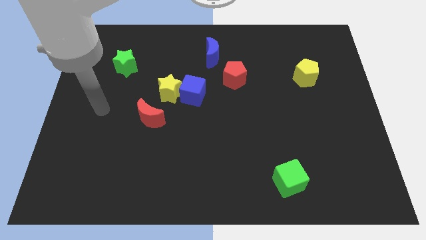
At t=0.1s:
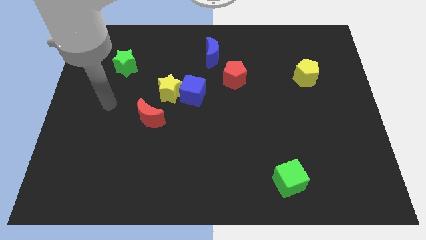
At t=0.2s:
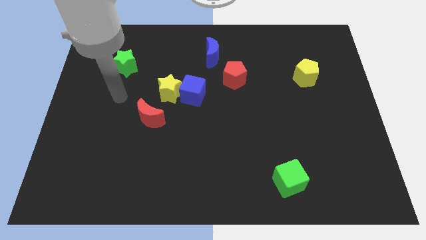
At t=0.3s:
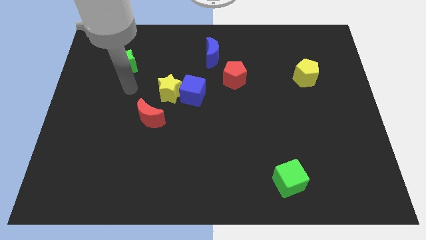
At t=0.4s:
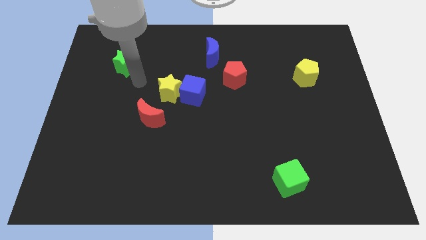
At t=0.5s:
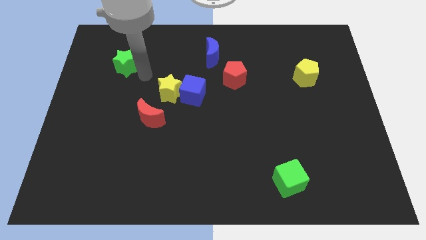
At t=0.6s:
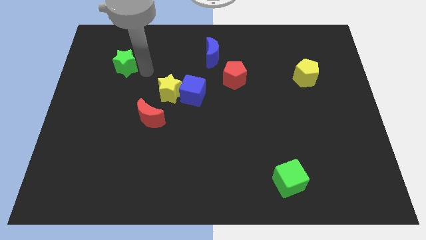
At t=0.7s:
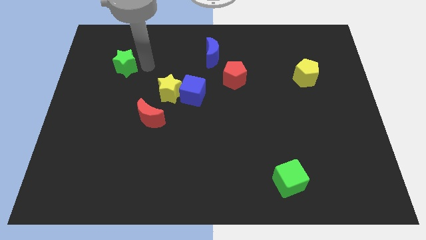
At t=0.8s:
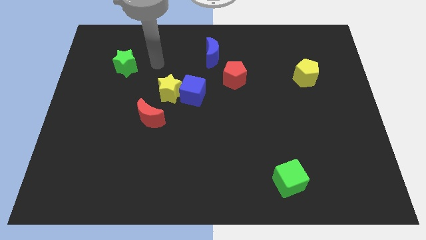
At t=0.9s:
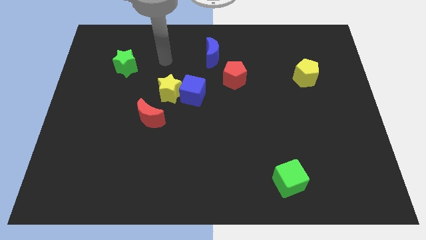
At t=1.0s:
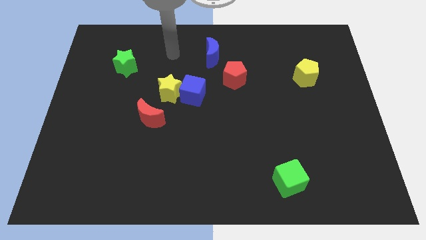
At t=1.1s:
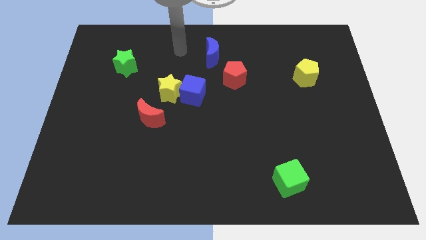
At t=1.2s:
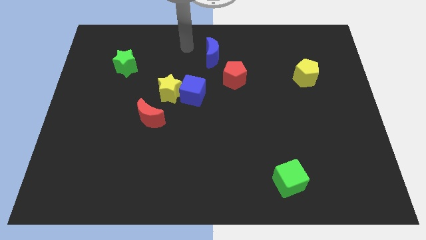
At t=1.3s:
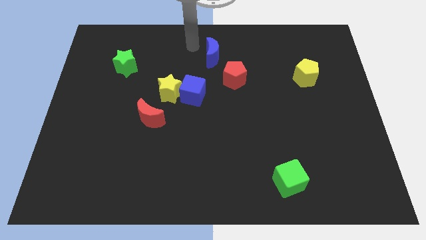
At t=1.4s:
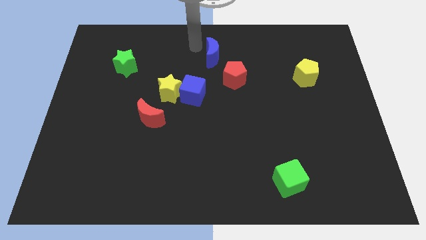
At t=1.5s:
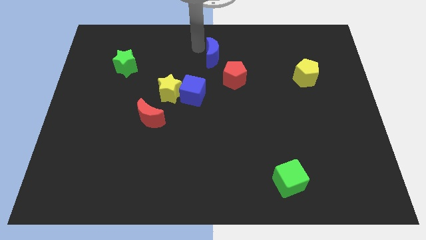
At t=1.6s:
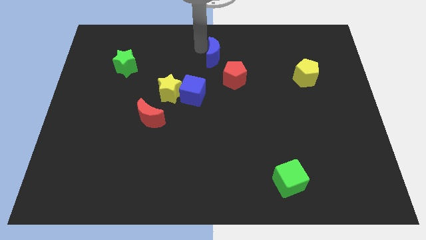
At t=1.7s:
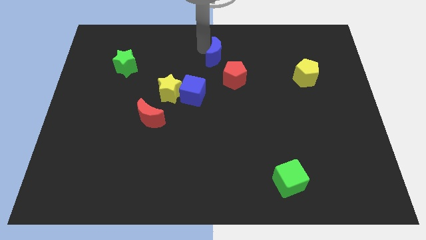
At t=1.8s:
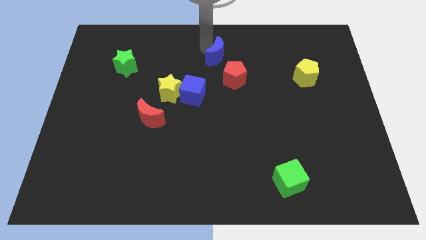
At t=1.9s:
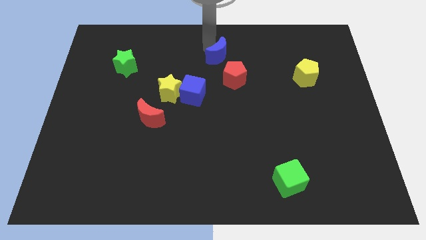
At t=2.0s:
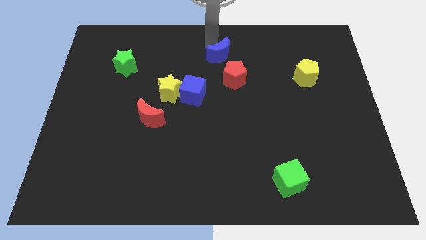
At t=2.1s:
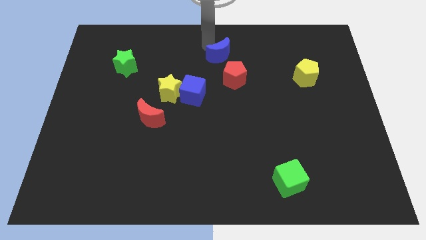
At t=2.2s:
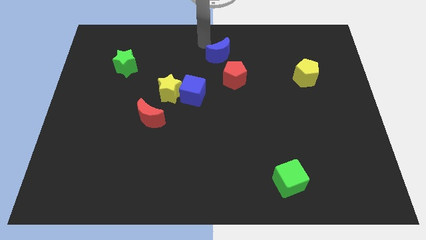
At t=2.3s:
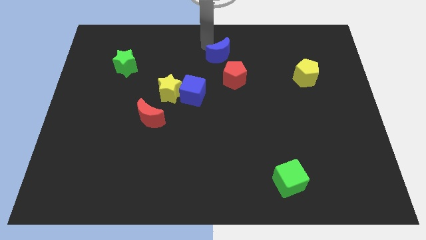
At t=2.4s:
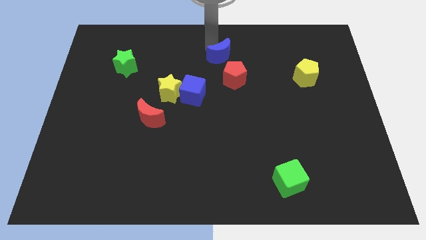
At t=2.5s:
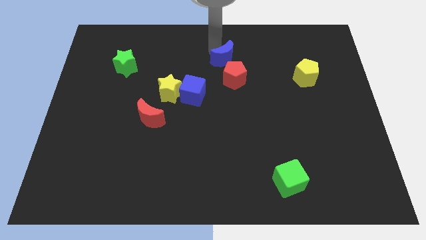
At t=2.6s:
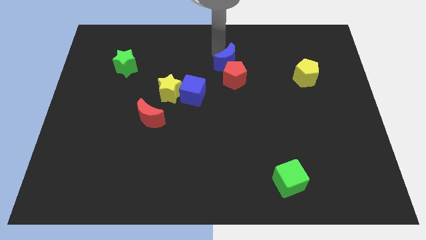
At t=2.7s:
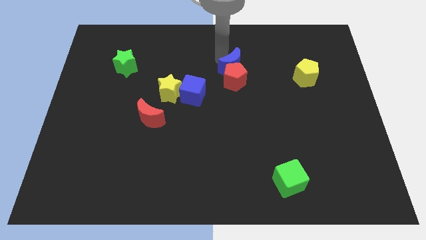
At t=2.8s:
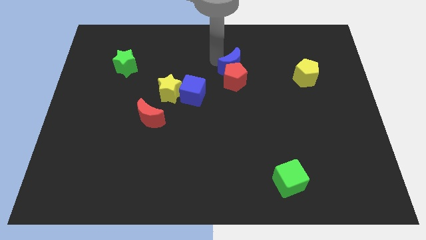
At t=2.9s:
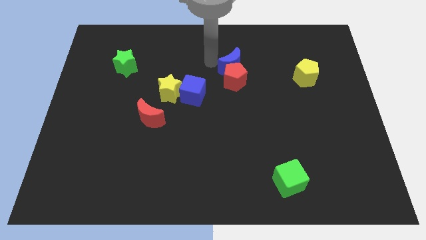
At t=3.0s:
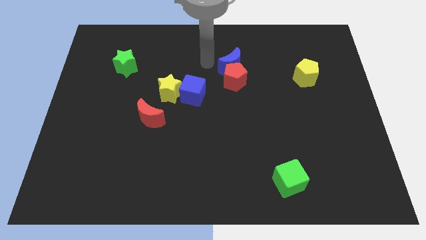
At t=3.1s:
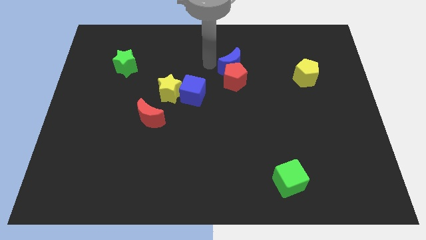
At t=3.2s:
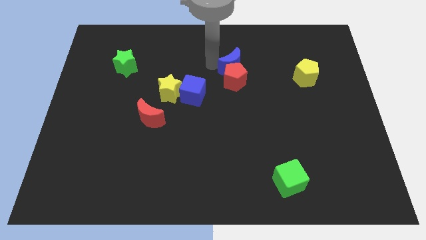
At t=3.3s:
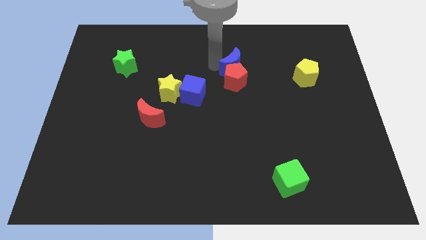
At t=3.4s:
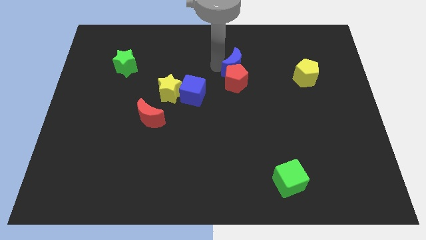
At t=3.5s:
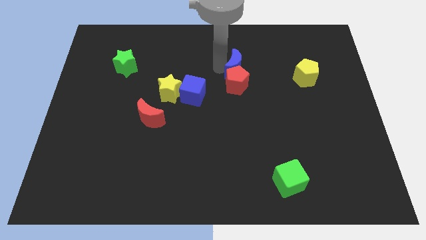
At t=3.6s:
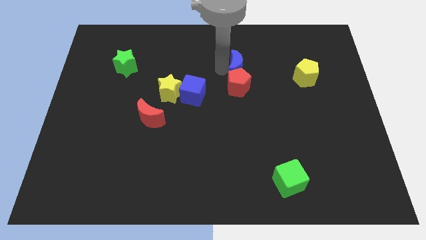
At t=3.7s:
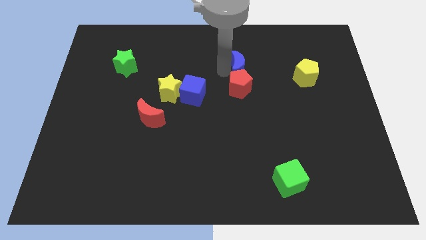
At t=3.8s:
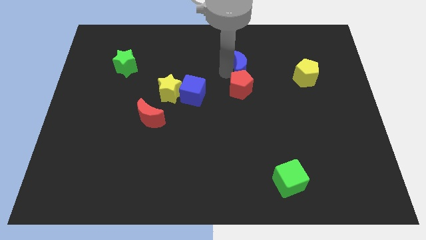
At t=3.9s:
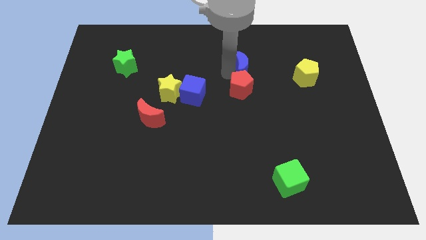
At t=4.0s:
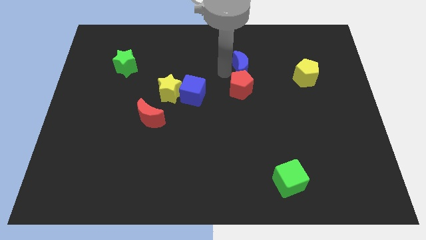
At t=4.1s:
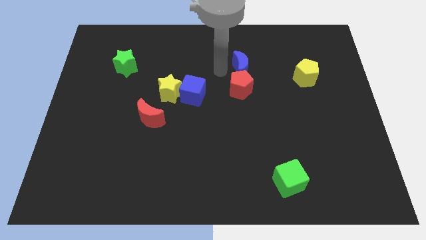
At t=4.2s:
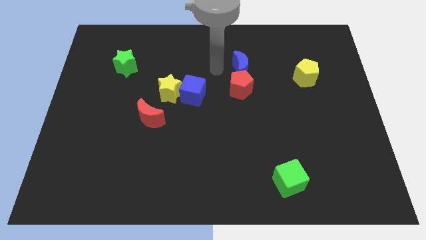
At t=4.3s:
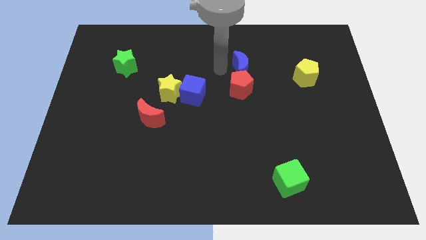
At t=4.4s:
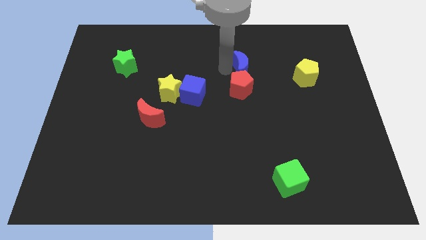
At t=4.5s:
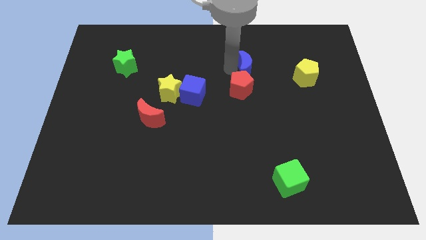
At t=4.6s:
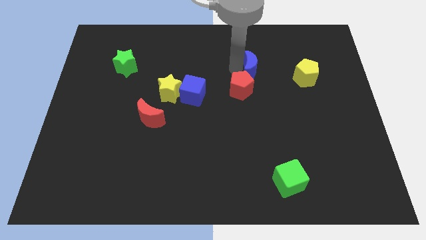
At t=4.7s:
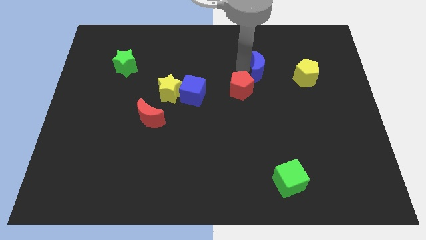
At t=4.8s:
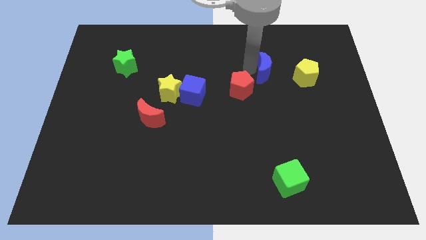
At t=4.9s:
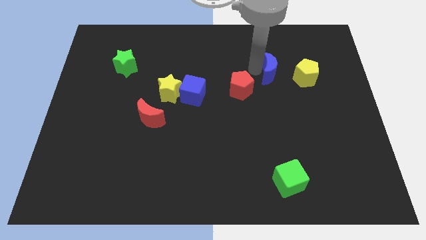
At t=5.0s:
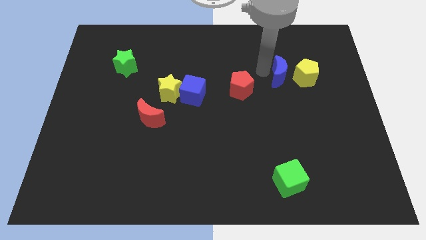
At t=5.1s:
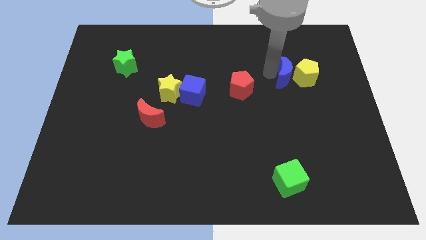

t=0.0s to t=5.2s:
push the blue moon to the yellow pentagon

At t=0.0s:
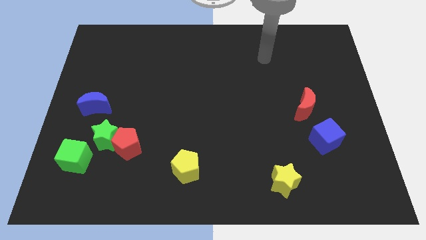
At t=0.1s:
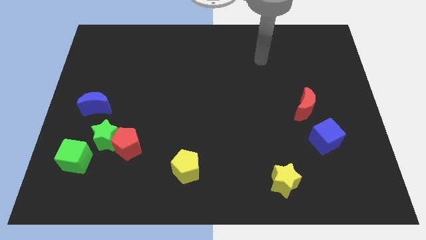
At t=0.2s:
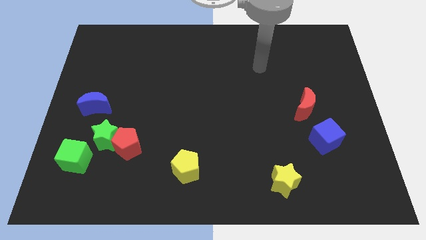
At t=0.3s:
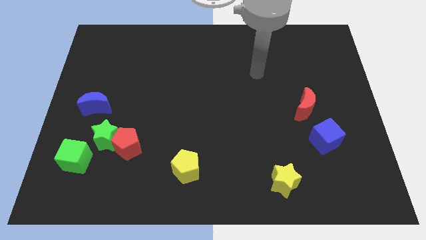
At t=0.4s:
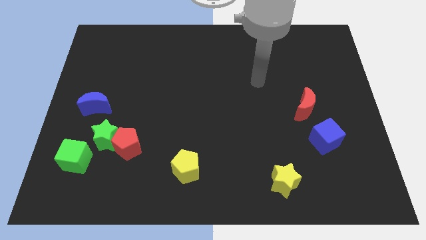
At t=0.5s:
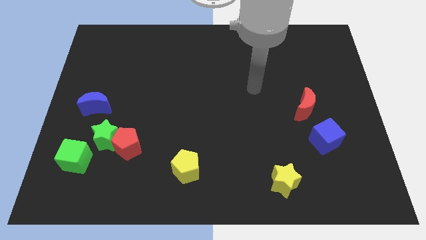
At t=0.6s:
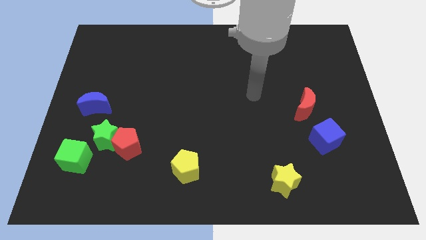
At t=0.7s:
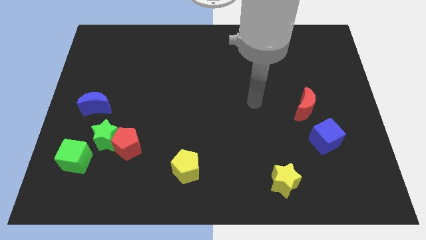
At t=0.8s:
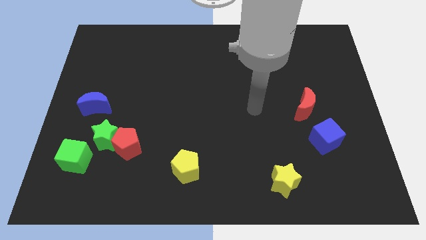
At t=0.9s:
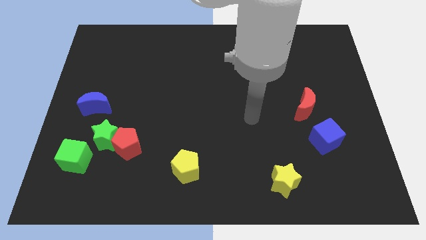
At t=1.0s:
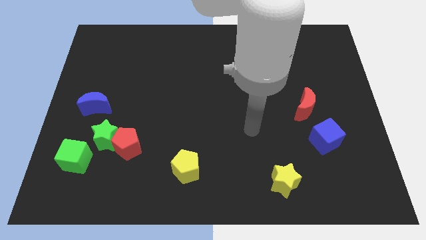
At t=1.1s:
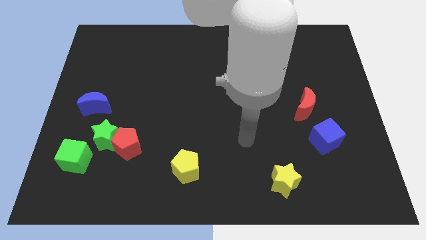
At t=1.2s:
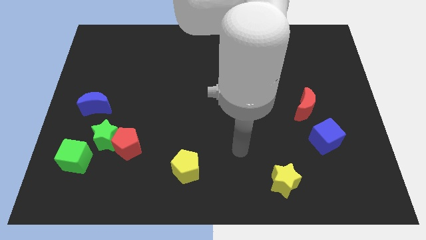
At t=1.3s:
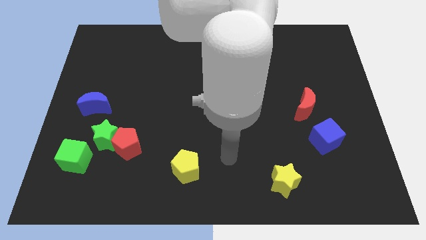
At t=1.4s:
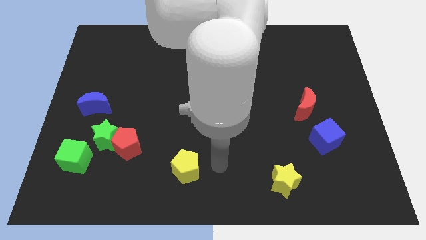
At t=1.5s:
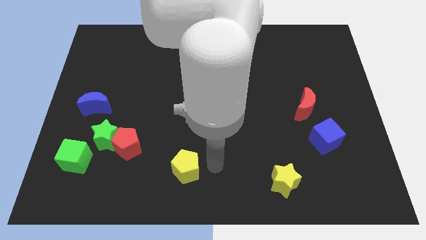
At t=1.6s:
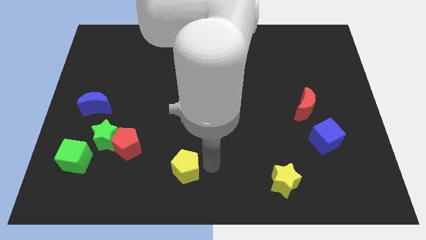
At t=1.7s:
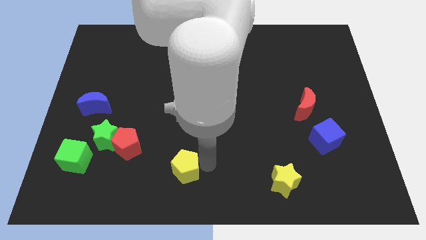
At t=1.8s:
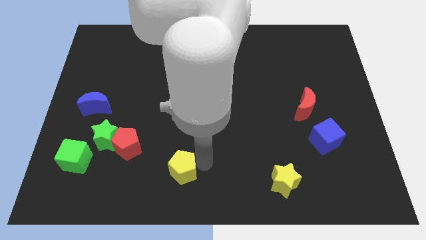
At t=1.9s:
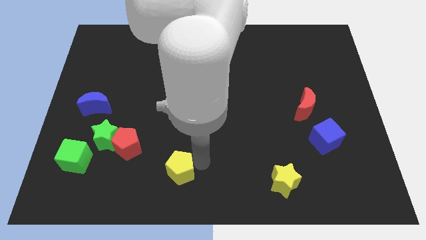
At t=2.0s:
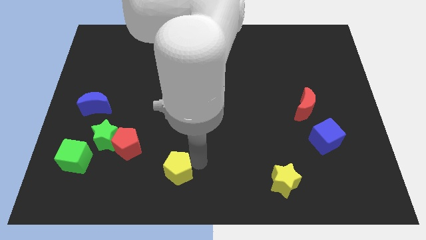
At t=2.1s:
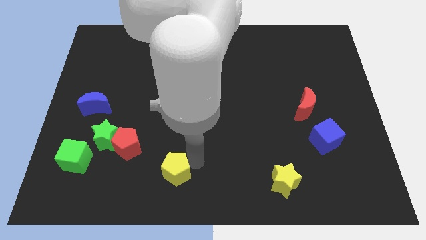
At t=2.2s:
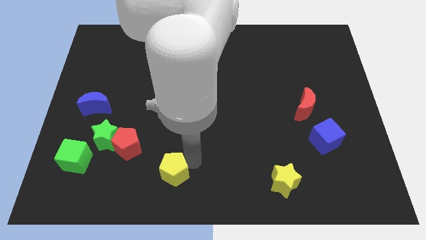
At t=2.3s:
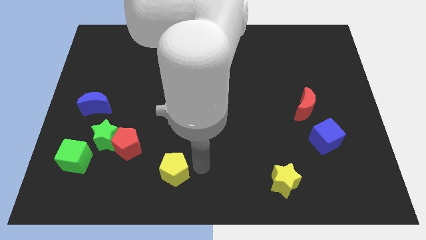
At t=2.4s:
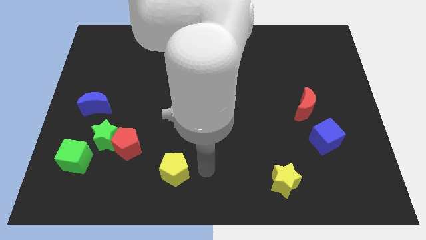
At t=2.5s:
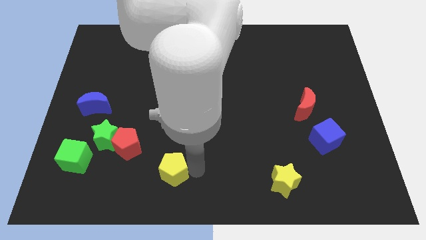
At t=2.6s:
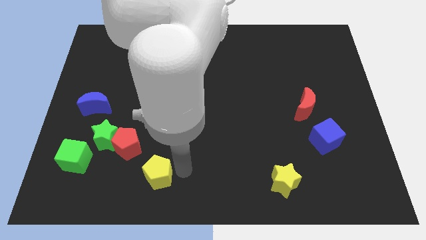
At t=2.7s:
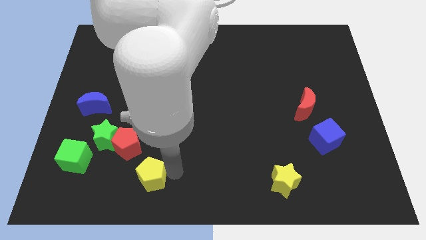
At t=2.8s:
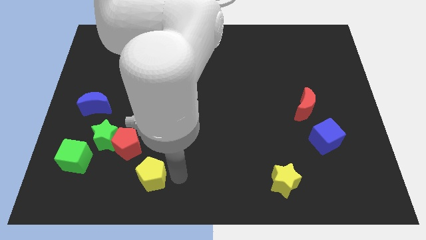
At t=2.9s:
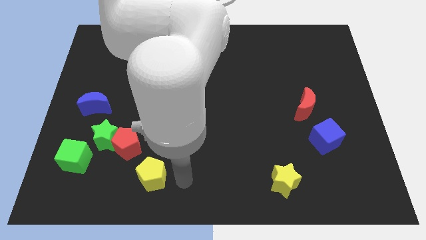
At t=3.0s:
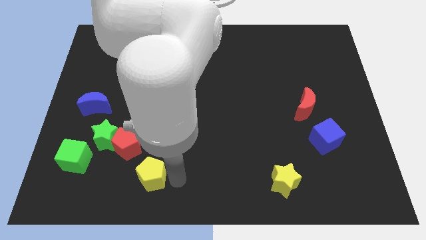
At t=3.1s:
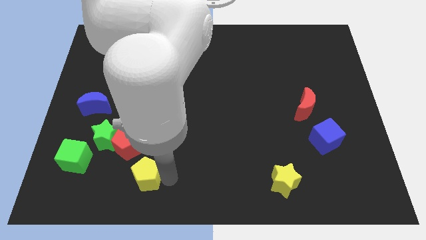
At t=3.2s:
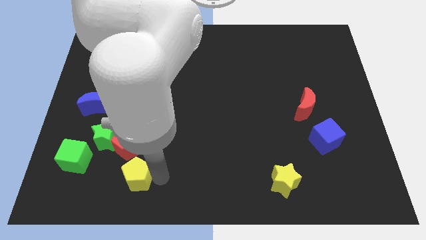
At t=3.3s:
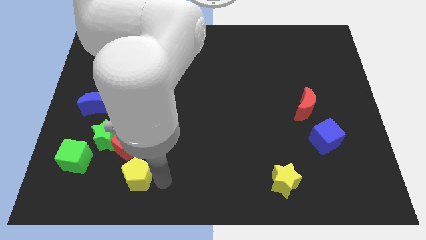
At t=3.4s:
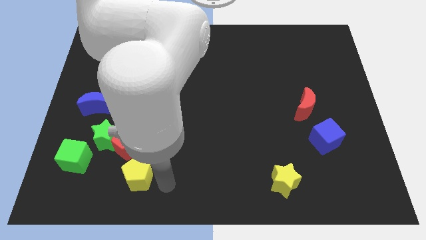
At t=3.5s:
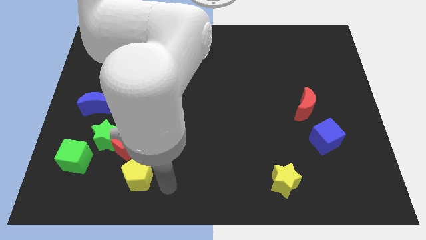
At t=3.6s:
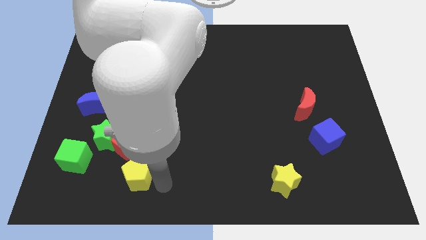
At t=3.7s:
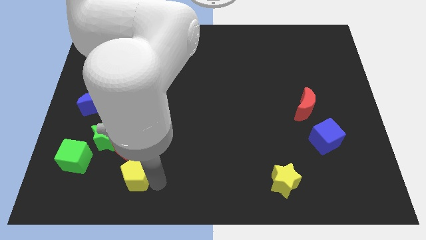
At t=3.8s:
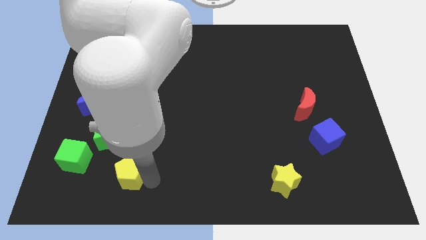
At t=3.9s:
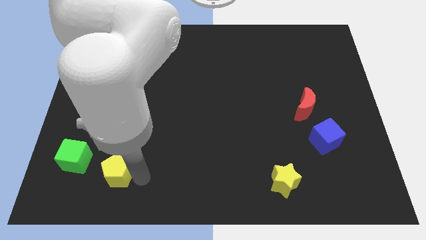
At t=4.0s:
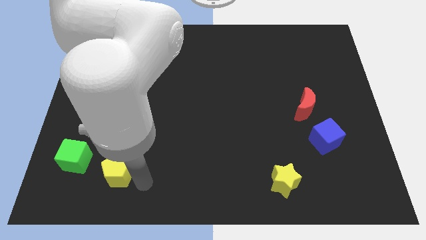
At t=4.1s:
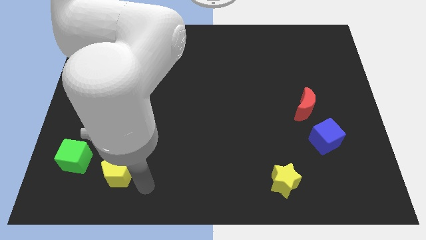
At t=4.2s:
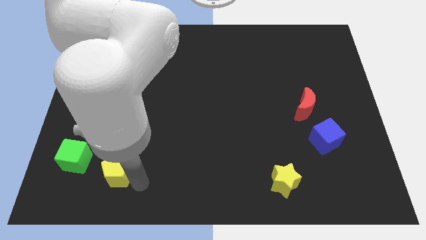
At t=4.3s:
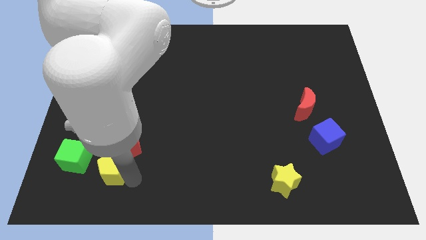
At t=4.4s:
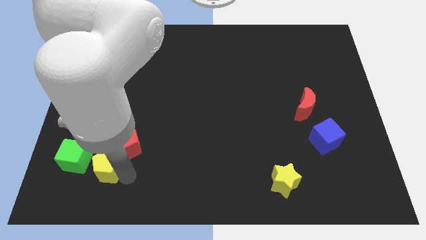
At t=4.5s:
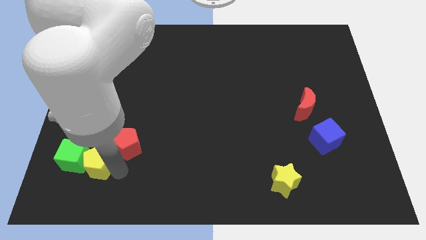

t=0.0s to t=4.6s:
push the yellow pentagon close to the green cube
